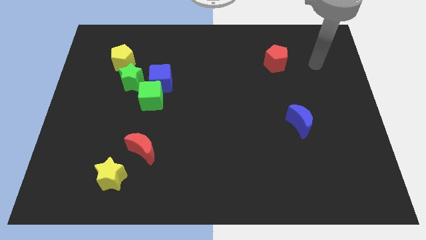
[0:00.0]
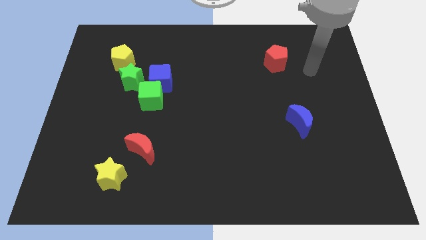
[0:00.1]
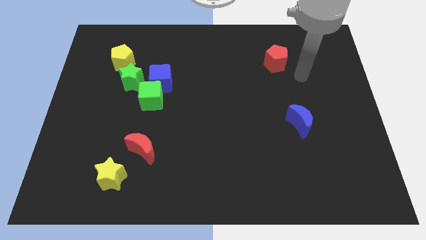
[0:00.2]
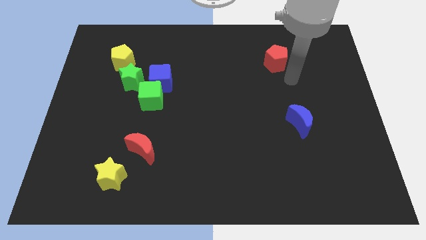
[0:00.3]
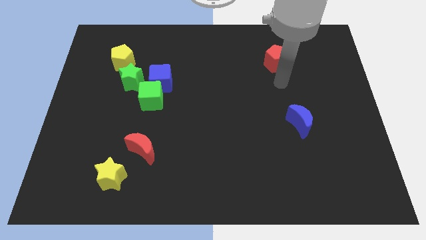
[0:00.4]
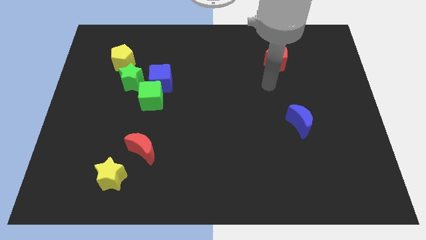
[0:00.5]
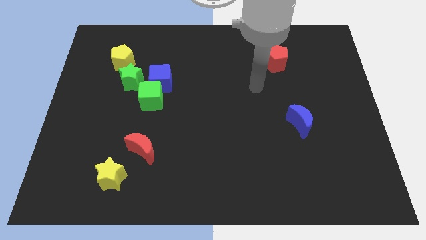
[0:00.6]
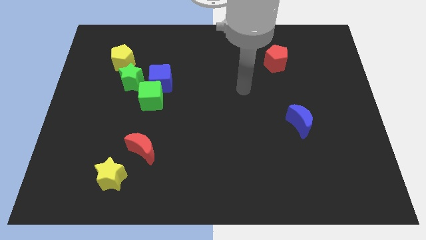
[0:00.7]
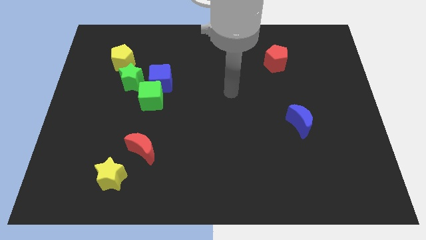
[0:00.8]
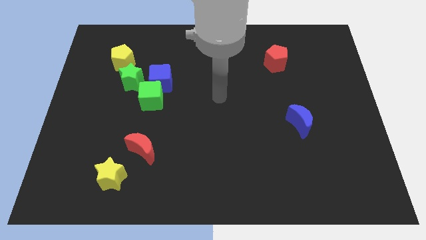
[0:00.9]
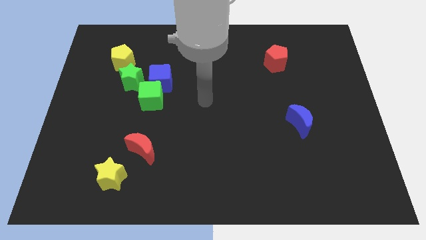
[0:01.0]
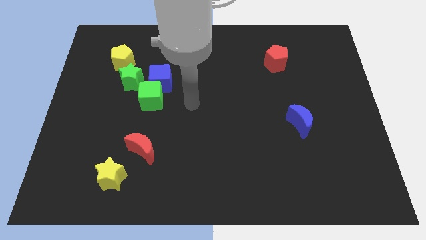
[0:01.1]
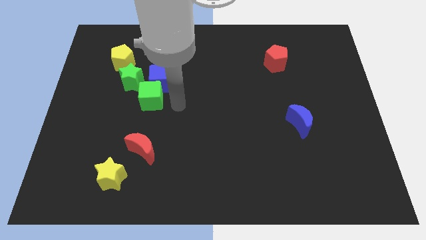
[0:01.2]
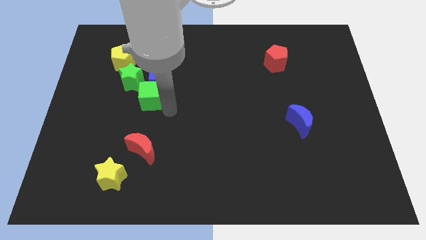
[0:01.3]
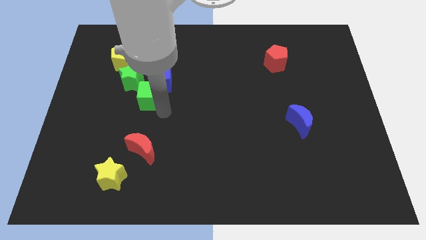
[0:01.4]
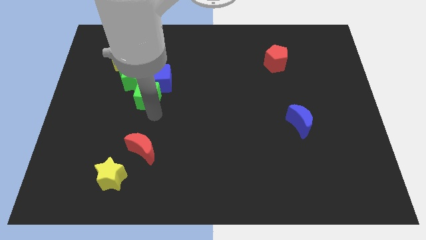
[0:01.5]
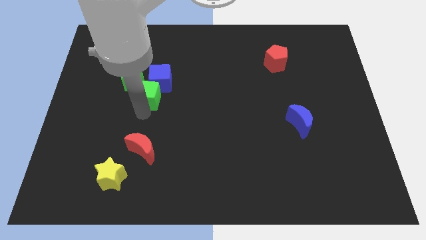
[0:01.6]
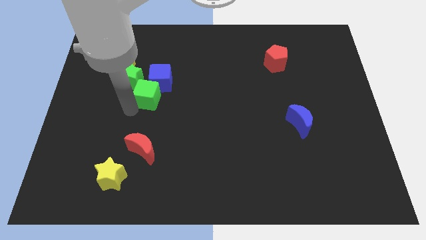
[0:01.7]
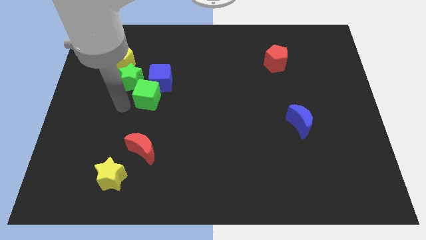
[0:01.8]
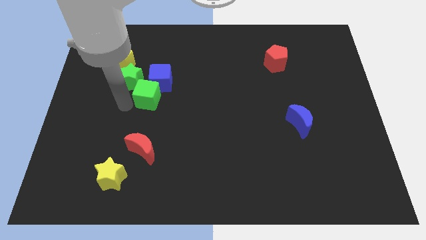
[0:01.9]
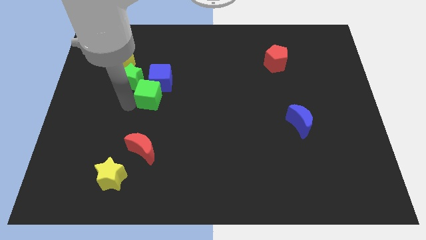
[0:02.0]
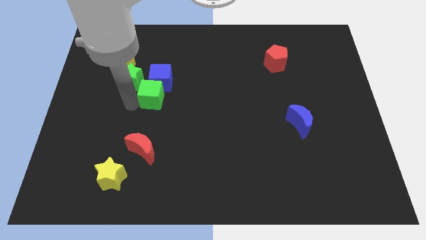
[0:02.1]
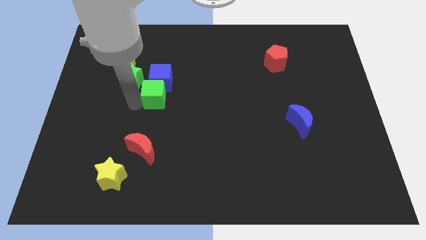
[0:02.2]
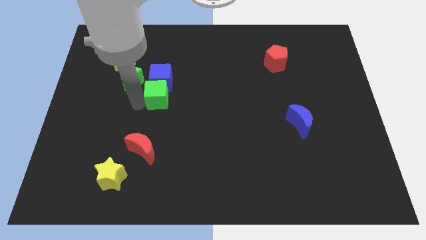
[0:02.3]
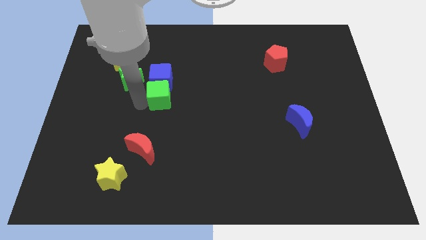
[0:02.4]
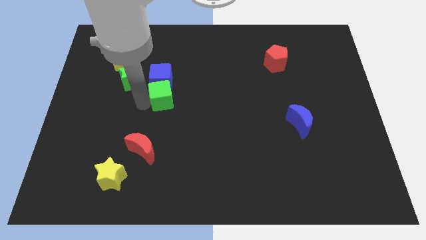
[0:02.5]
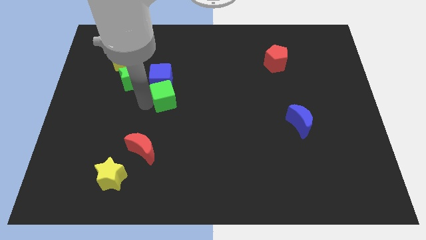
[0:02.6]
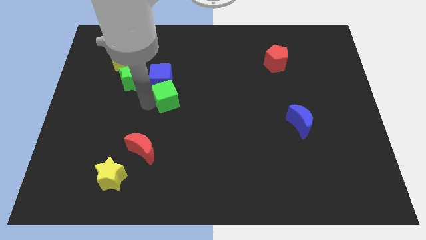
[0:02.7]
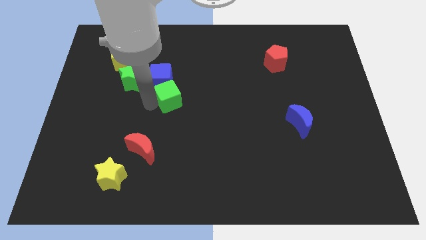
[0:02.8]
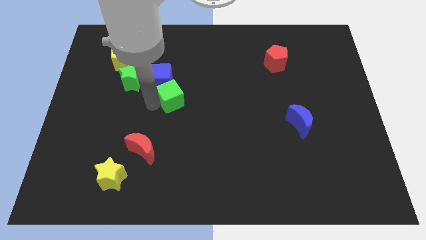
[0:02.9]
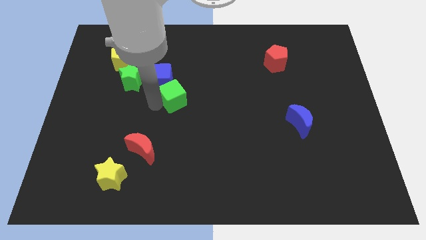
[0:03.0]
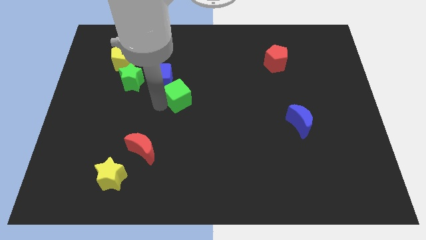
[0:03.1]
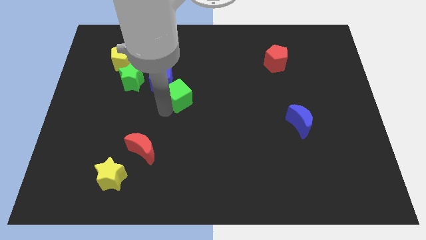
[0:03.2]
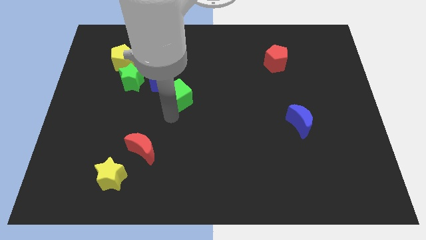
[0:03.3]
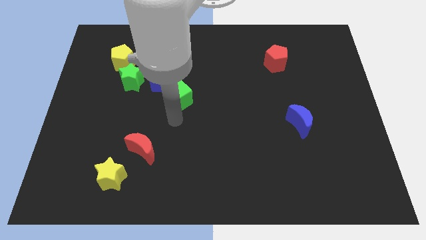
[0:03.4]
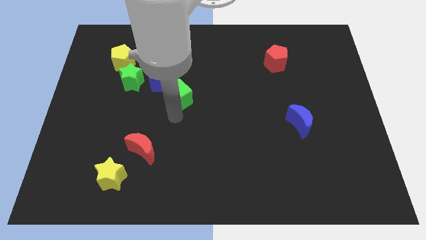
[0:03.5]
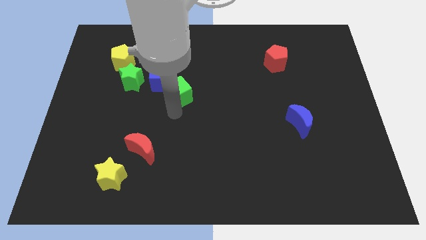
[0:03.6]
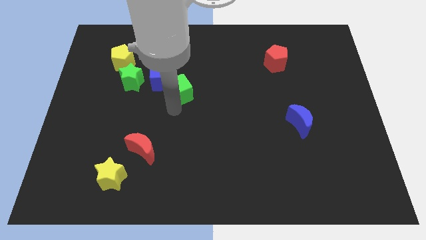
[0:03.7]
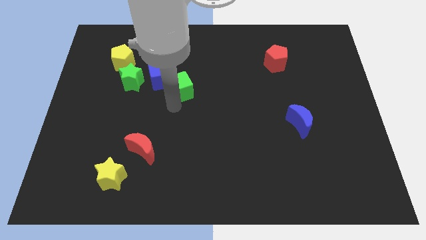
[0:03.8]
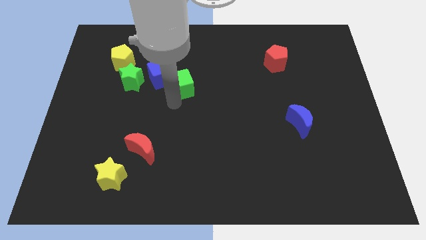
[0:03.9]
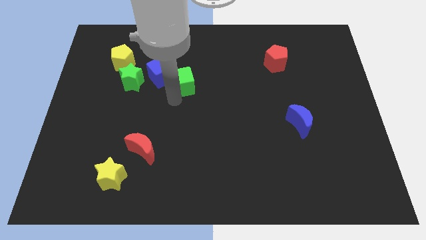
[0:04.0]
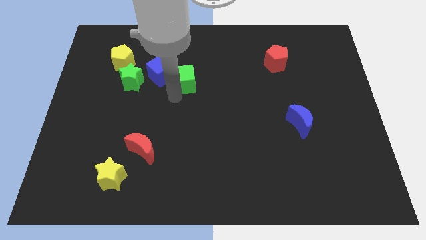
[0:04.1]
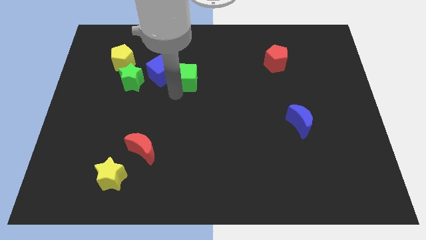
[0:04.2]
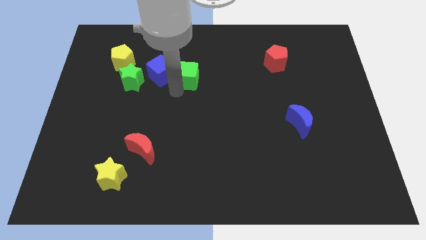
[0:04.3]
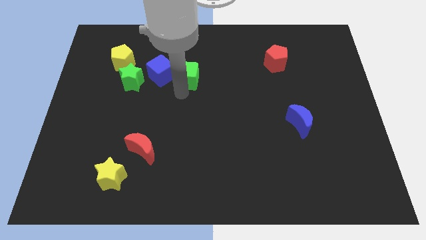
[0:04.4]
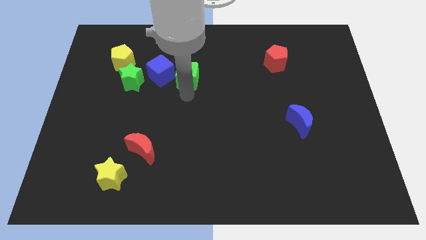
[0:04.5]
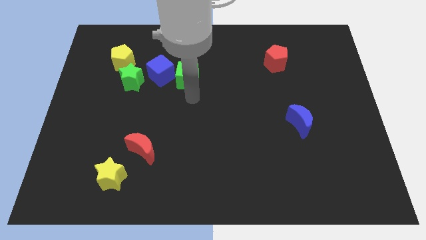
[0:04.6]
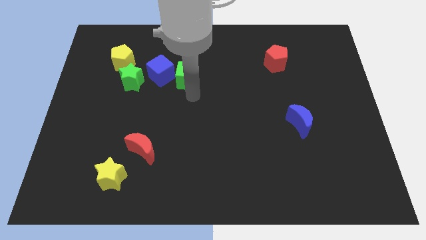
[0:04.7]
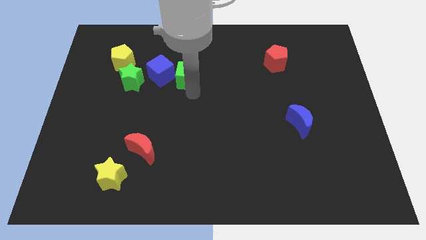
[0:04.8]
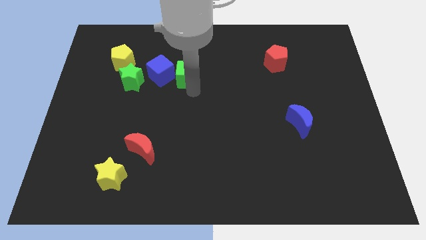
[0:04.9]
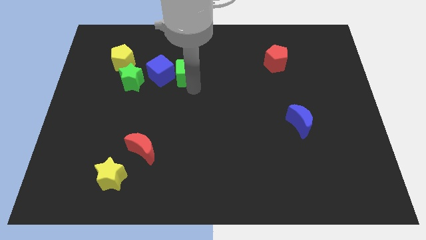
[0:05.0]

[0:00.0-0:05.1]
push the green cube diagonally up and to the right of the blue cube

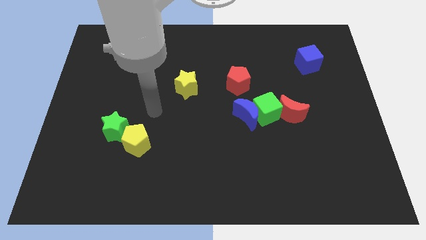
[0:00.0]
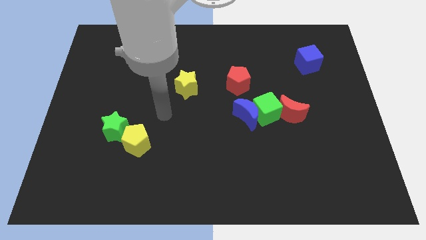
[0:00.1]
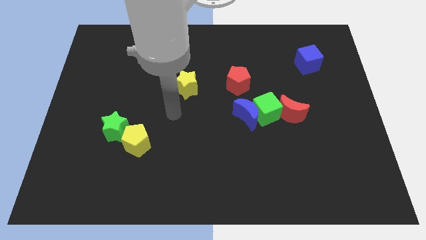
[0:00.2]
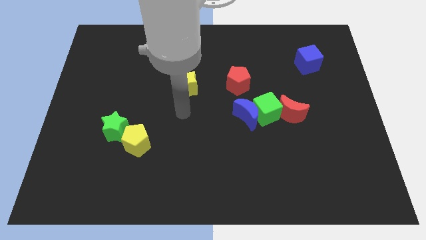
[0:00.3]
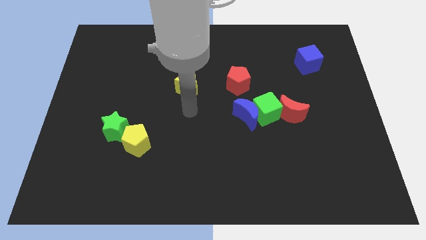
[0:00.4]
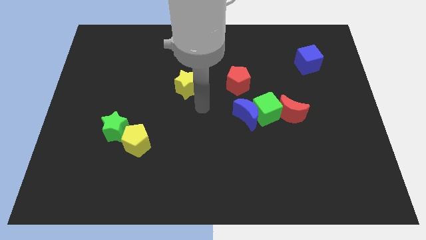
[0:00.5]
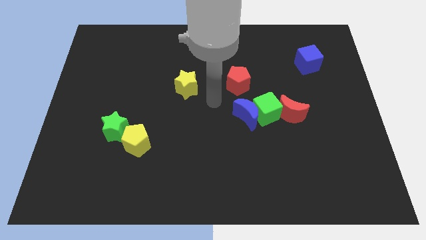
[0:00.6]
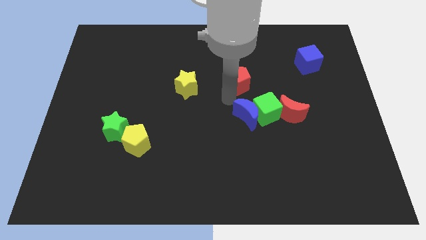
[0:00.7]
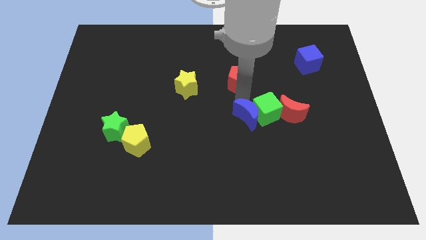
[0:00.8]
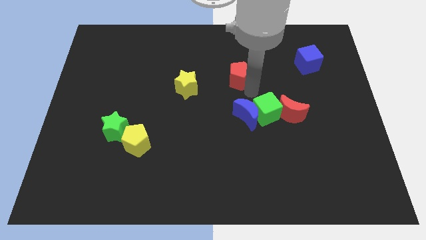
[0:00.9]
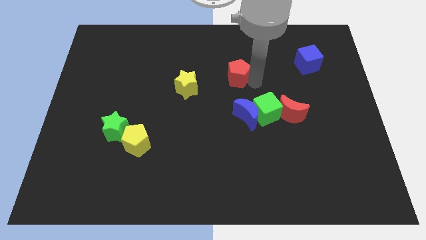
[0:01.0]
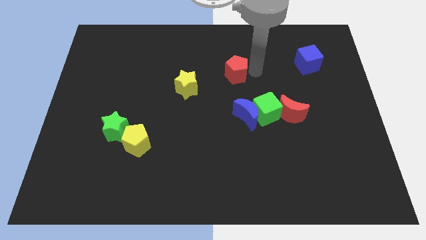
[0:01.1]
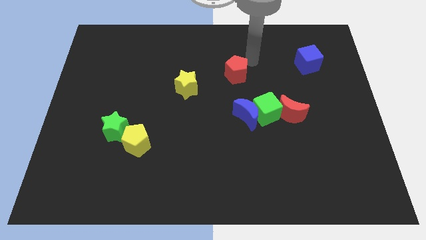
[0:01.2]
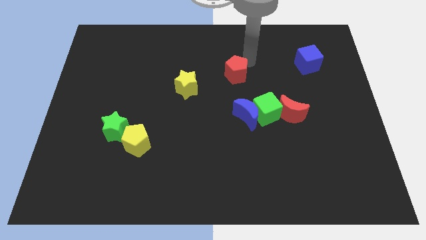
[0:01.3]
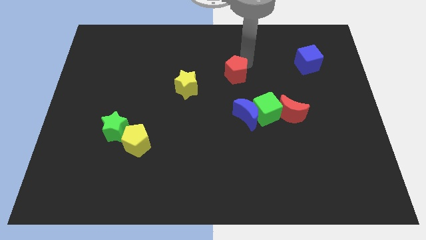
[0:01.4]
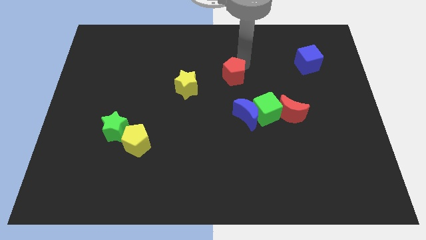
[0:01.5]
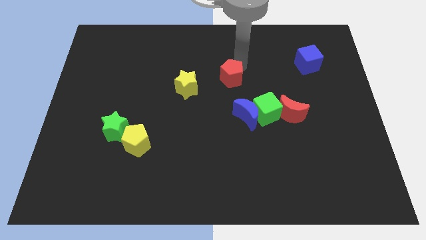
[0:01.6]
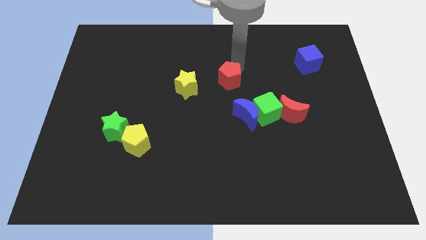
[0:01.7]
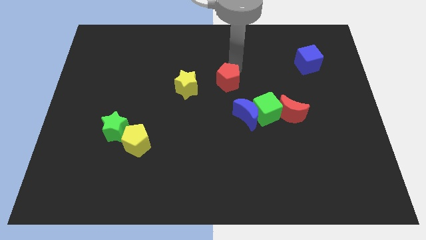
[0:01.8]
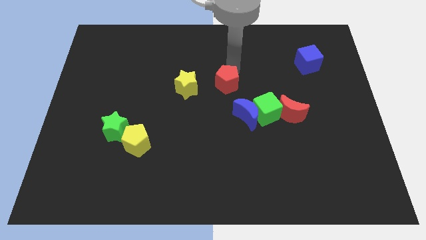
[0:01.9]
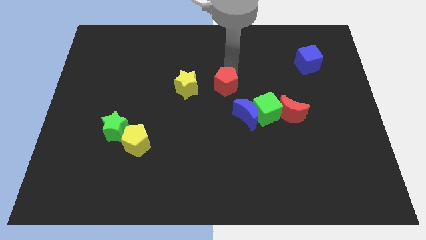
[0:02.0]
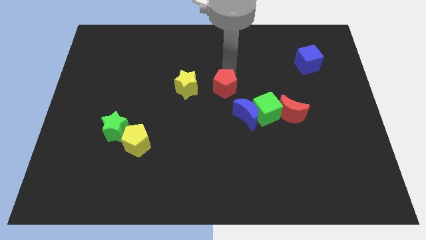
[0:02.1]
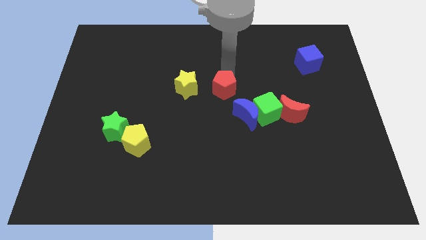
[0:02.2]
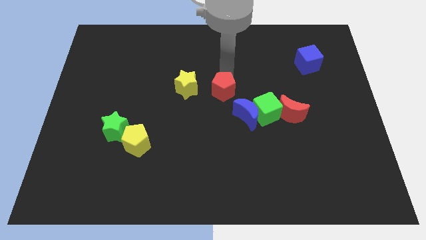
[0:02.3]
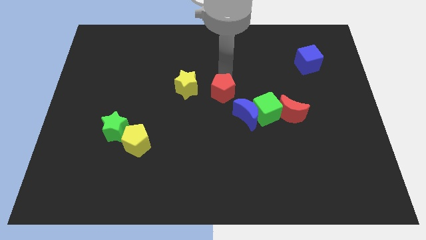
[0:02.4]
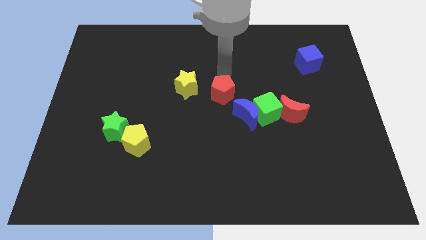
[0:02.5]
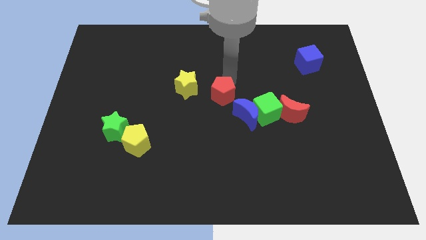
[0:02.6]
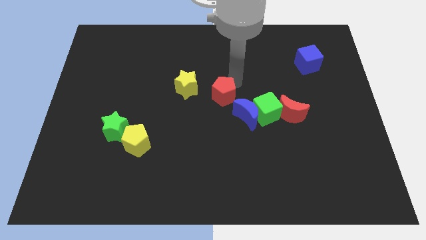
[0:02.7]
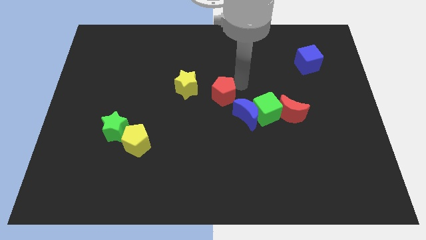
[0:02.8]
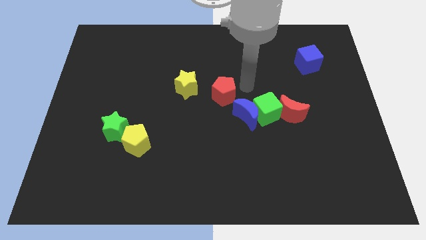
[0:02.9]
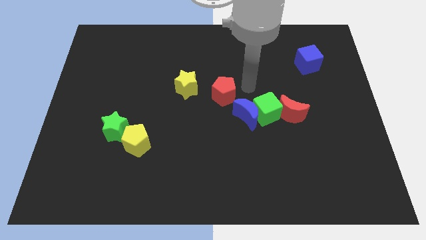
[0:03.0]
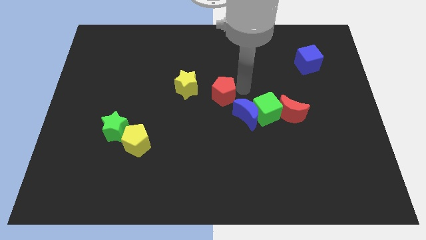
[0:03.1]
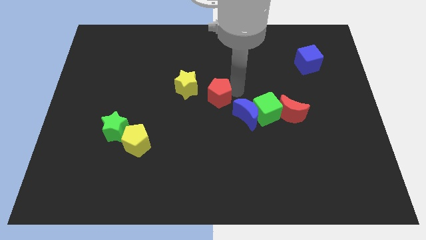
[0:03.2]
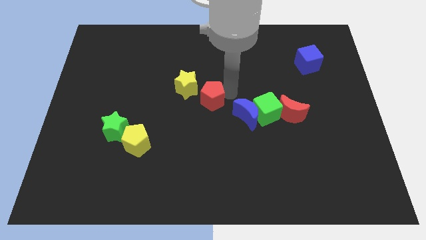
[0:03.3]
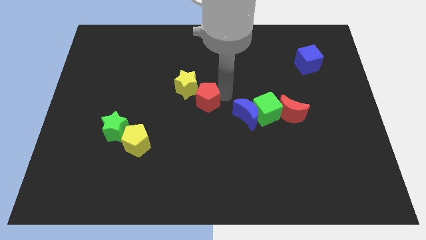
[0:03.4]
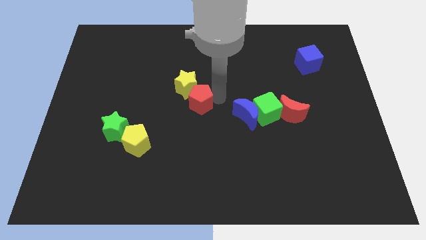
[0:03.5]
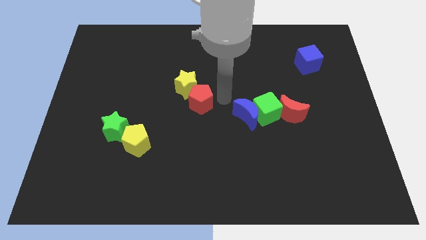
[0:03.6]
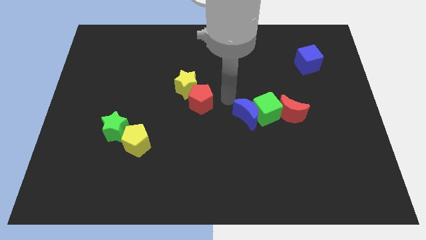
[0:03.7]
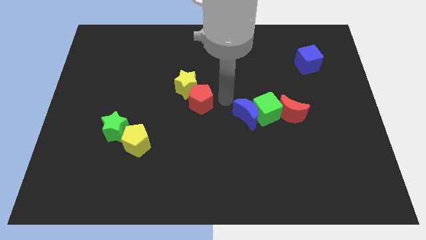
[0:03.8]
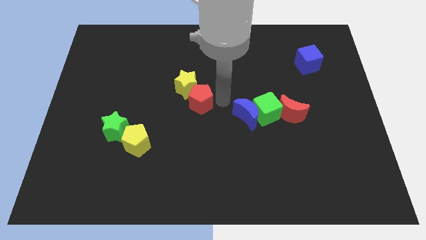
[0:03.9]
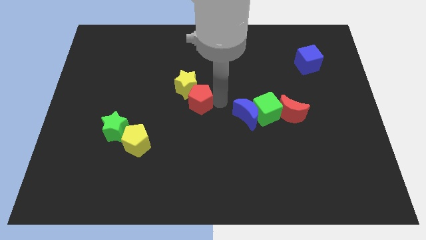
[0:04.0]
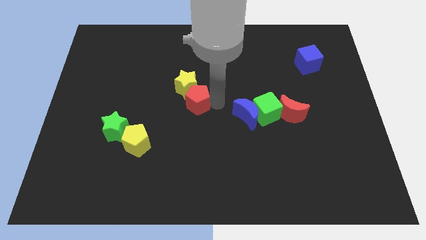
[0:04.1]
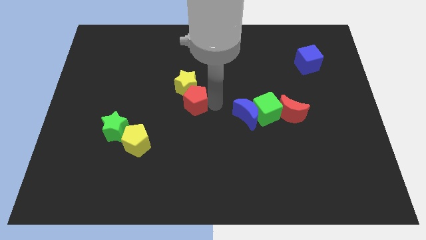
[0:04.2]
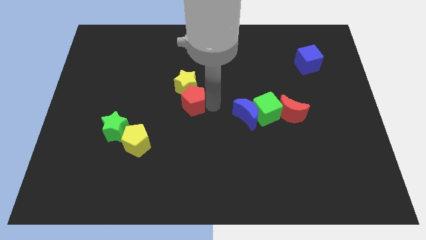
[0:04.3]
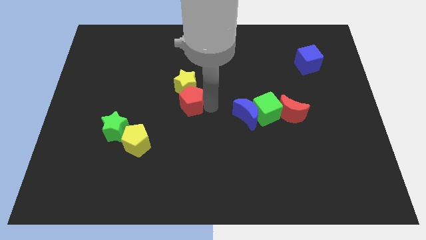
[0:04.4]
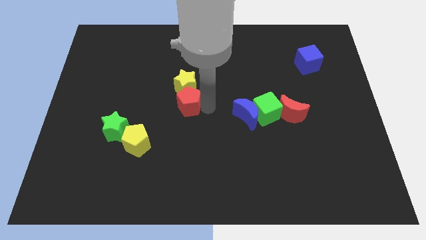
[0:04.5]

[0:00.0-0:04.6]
move the red pentagon to the bottom left side of the yellow star
